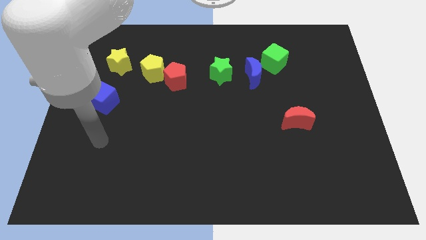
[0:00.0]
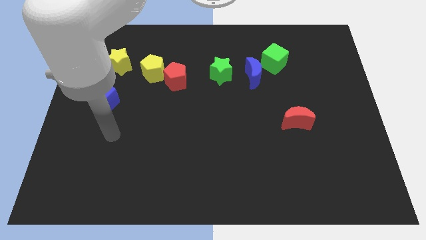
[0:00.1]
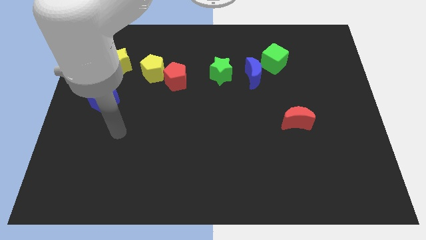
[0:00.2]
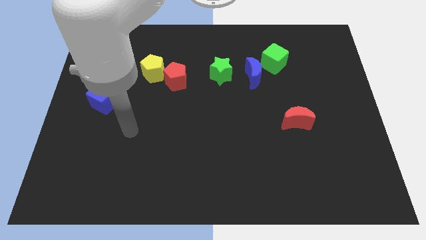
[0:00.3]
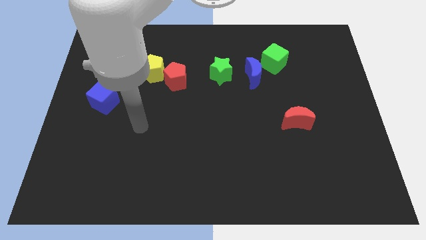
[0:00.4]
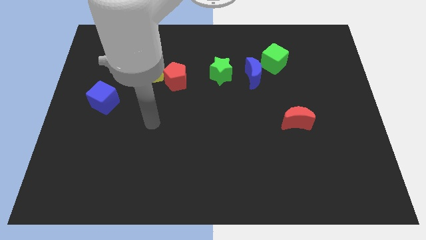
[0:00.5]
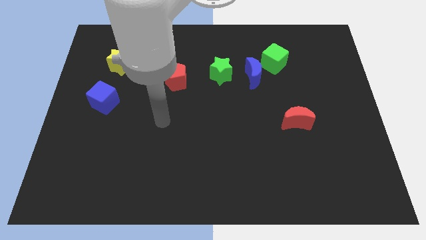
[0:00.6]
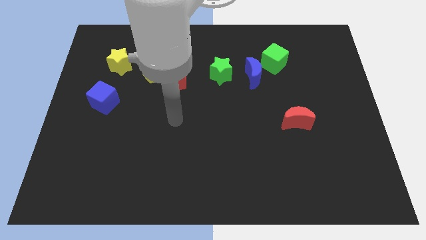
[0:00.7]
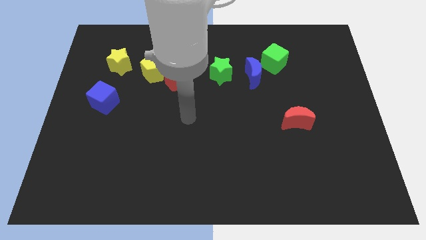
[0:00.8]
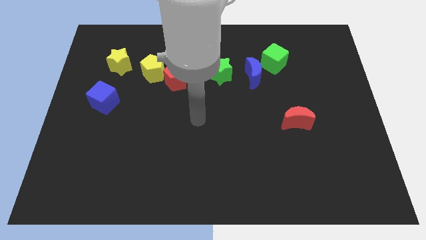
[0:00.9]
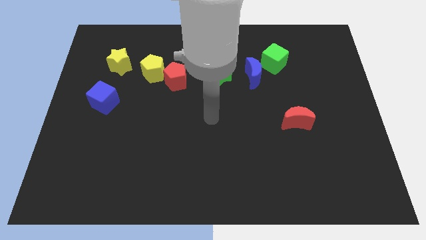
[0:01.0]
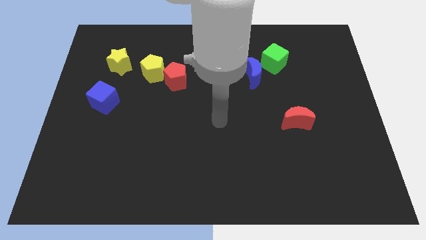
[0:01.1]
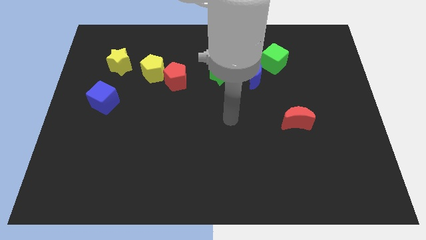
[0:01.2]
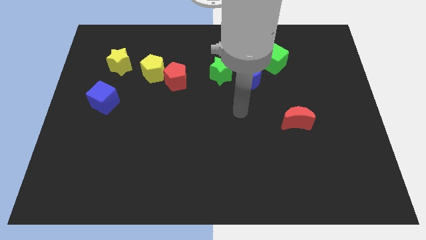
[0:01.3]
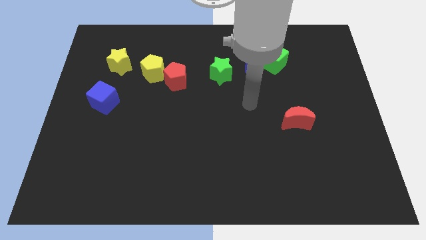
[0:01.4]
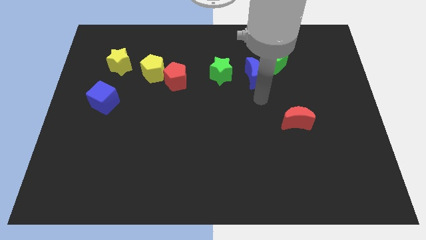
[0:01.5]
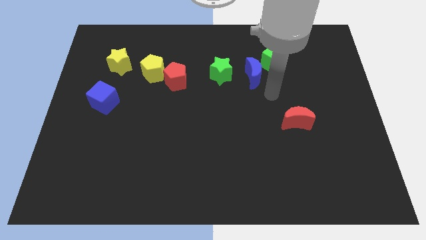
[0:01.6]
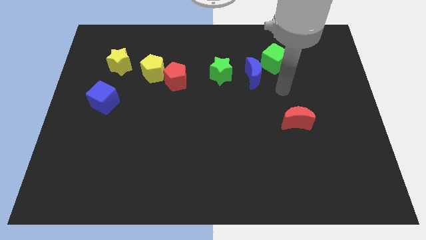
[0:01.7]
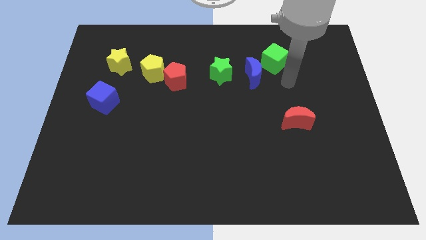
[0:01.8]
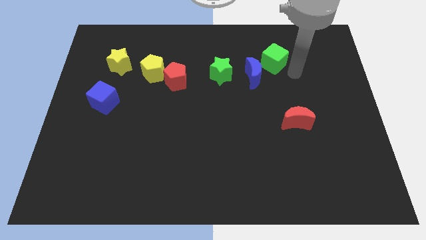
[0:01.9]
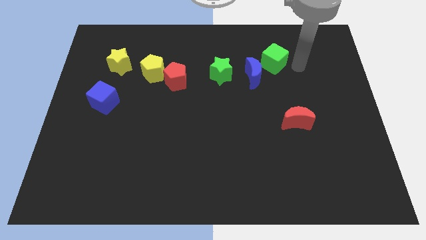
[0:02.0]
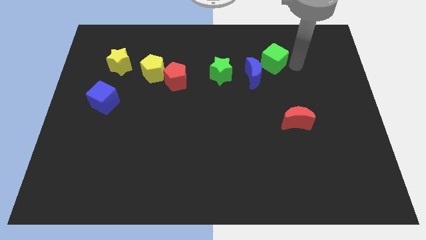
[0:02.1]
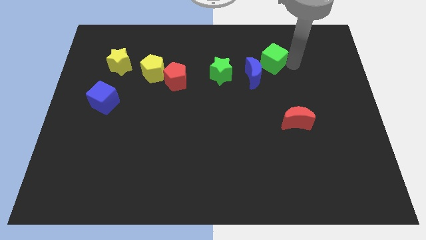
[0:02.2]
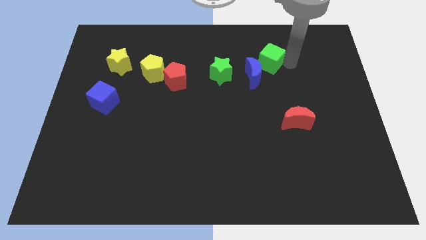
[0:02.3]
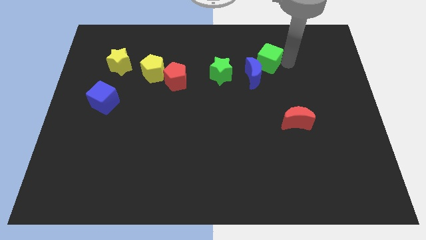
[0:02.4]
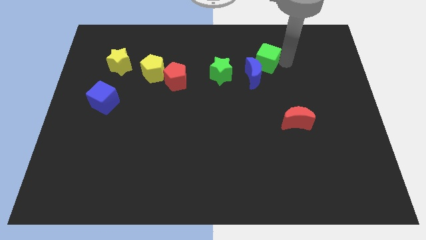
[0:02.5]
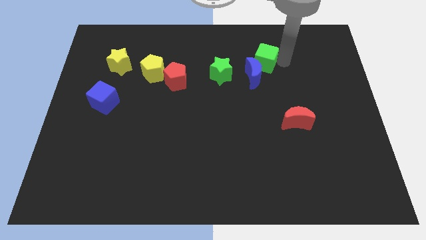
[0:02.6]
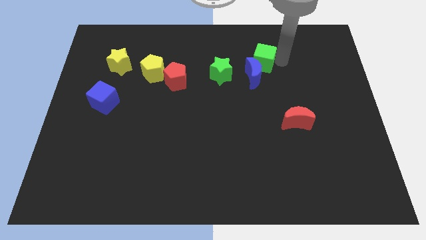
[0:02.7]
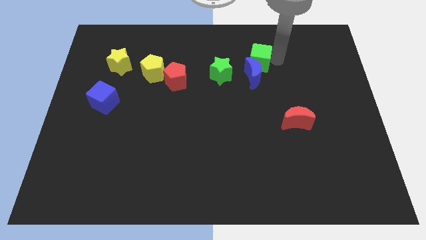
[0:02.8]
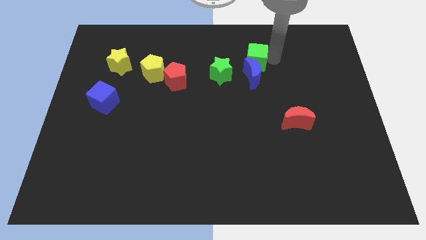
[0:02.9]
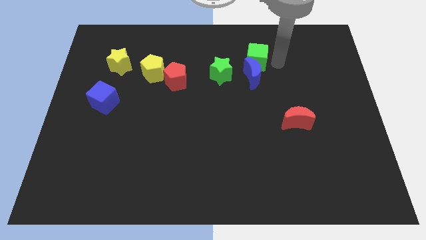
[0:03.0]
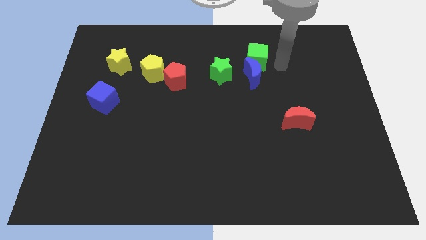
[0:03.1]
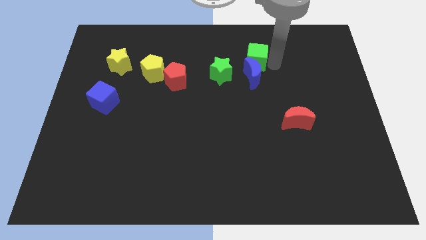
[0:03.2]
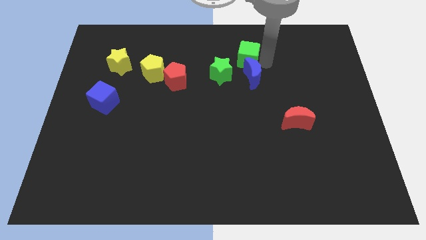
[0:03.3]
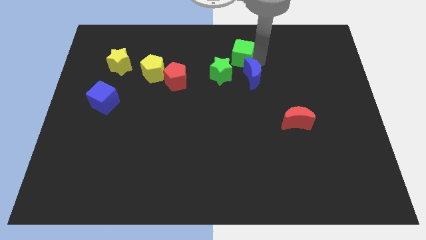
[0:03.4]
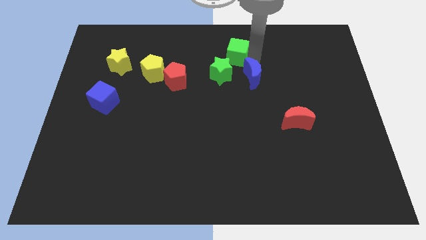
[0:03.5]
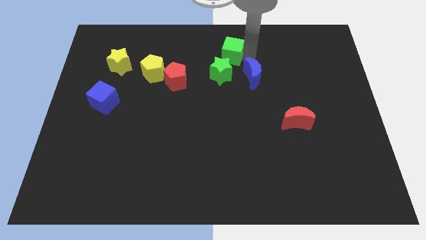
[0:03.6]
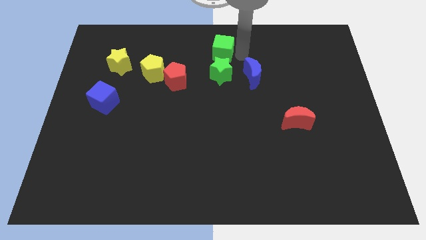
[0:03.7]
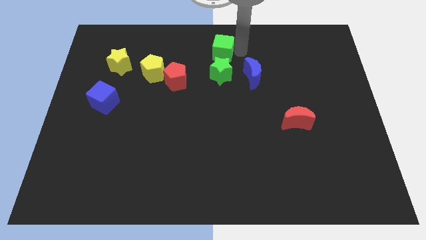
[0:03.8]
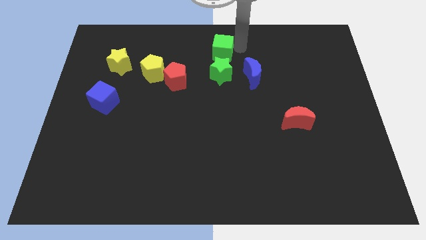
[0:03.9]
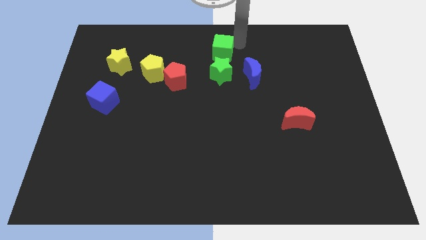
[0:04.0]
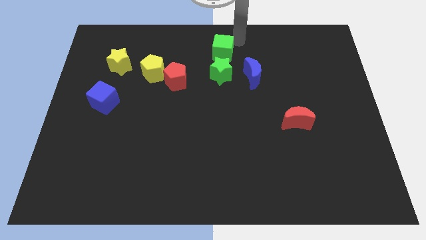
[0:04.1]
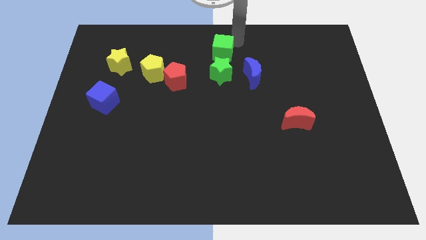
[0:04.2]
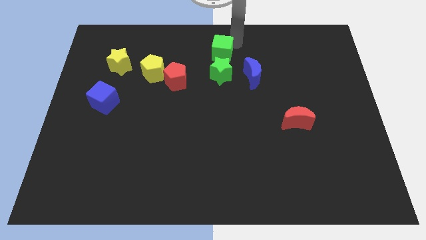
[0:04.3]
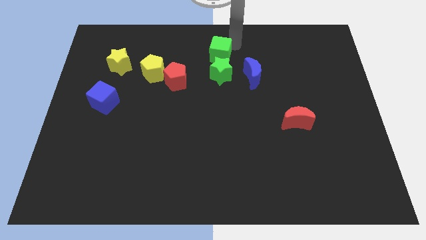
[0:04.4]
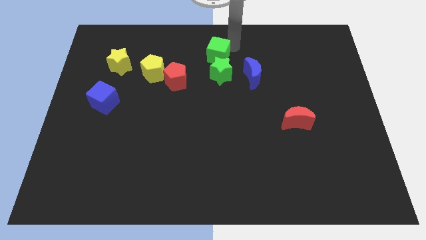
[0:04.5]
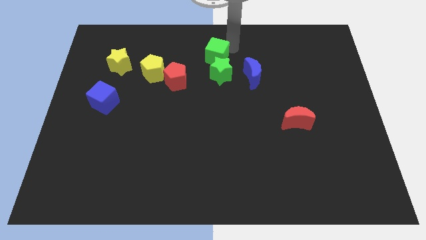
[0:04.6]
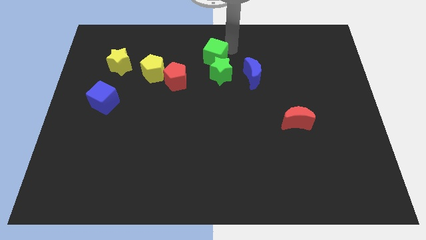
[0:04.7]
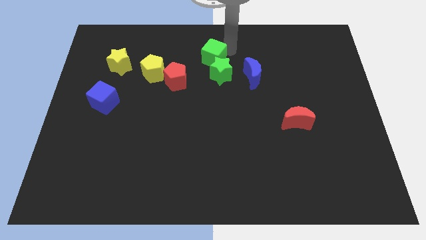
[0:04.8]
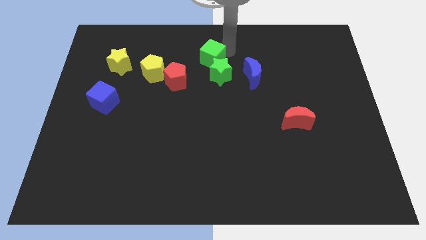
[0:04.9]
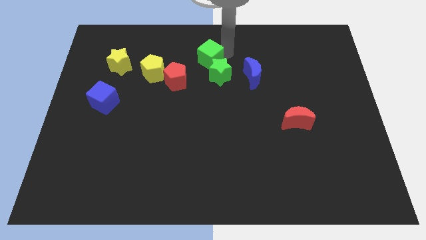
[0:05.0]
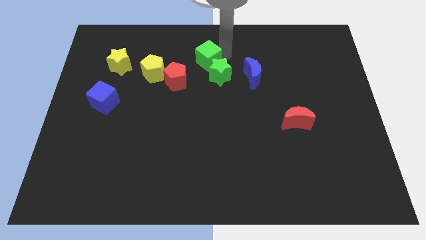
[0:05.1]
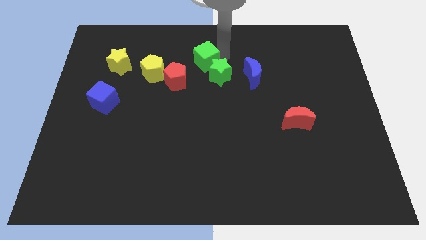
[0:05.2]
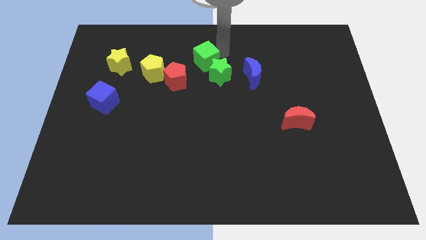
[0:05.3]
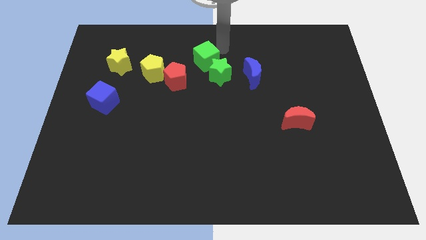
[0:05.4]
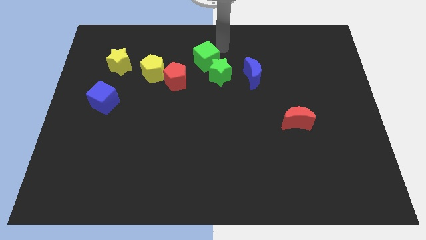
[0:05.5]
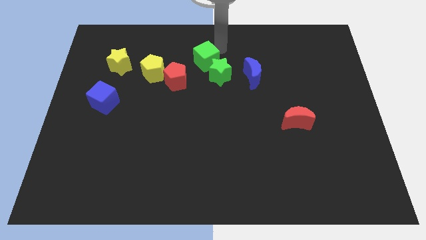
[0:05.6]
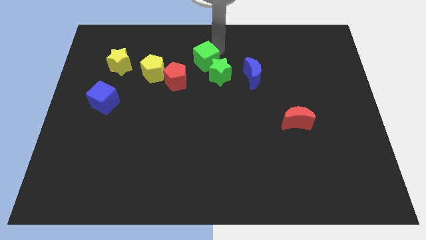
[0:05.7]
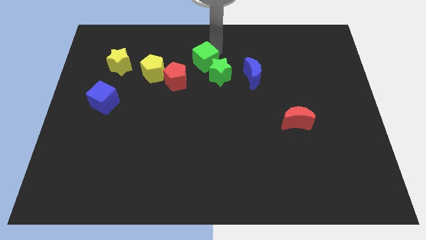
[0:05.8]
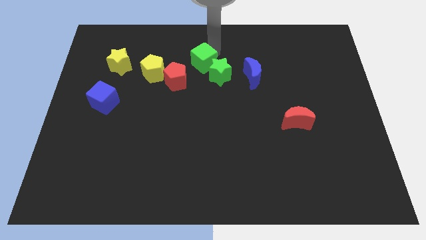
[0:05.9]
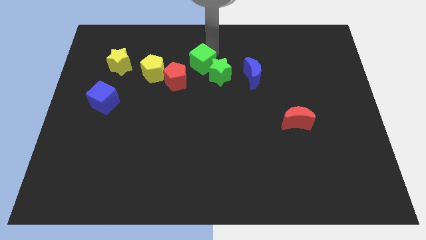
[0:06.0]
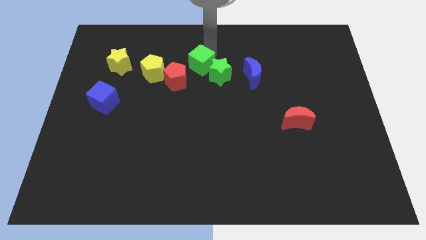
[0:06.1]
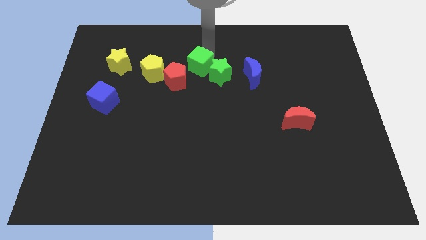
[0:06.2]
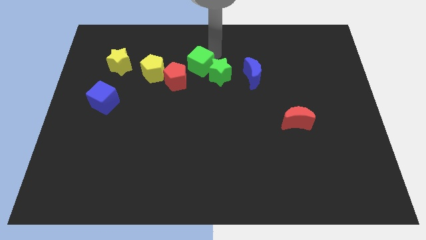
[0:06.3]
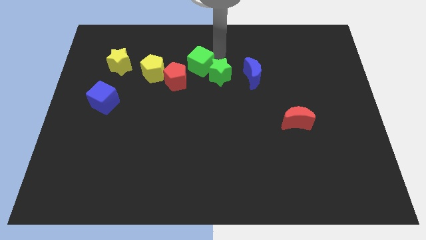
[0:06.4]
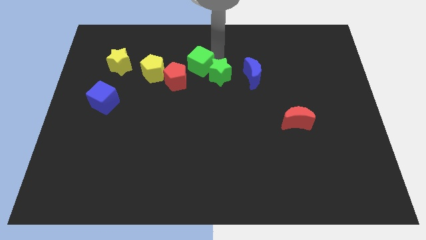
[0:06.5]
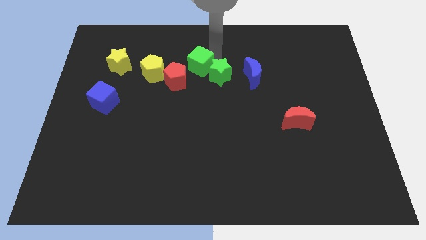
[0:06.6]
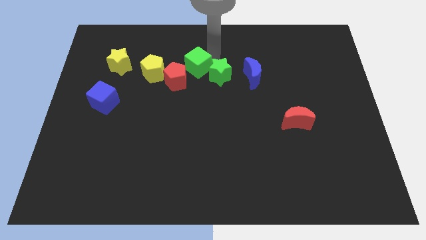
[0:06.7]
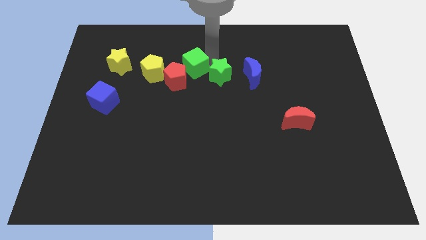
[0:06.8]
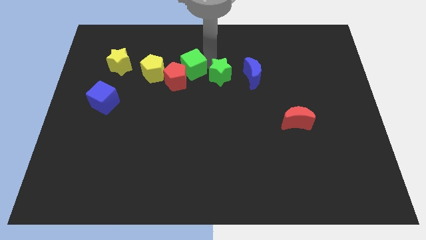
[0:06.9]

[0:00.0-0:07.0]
push the green cube next to the red pentagon
